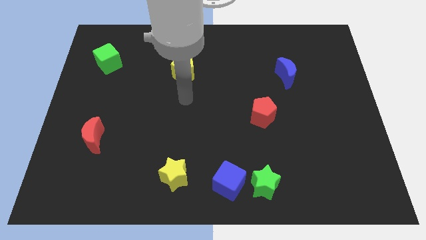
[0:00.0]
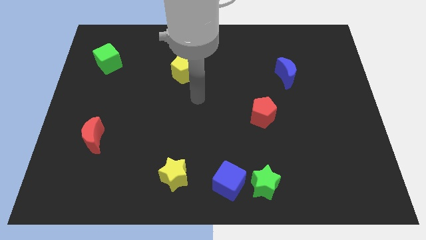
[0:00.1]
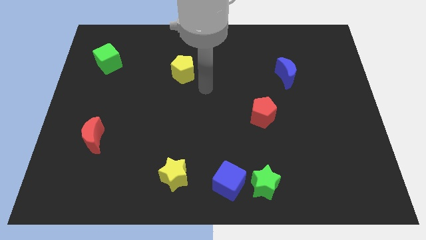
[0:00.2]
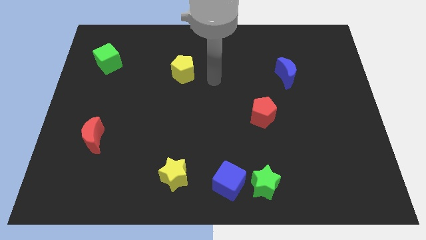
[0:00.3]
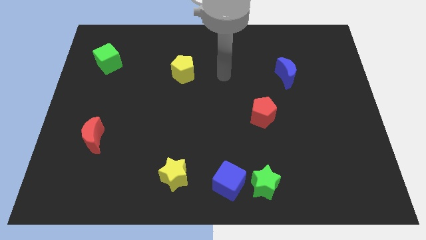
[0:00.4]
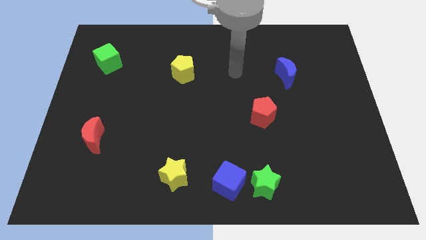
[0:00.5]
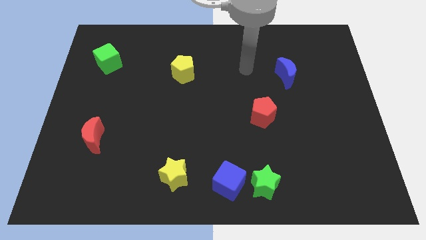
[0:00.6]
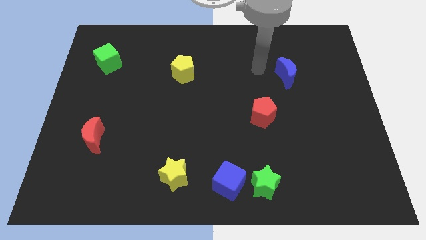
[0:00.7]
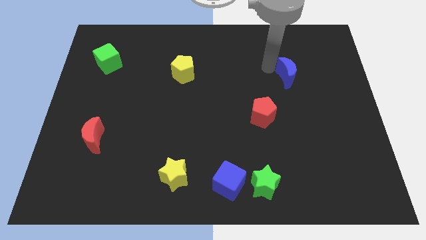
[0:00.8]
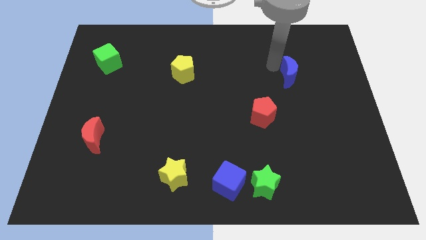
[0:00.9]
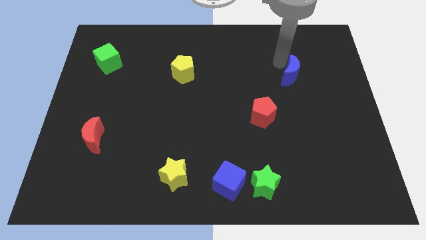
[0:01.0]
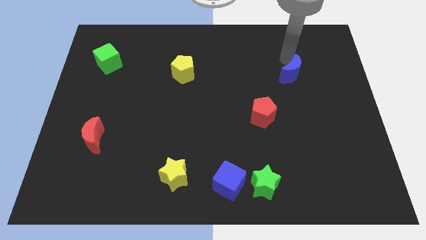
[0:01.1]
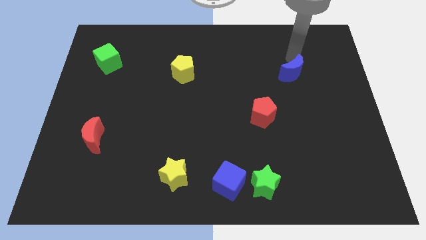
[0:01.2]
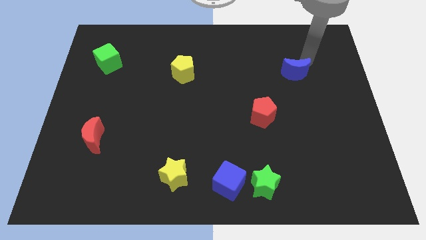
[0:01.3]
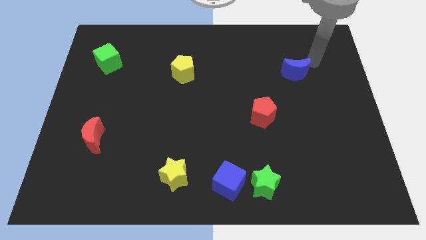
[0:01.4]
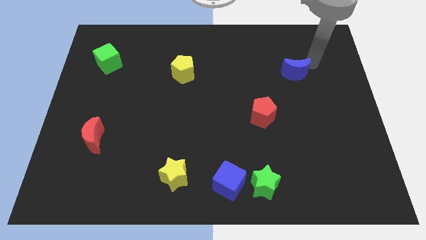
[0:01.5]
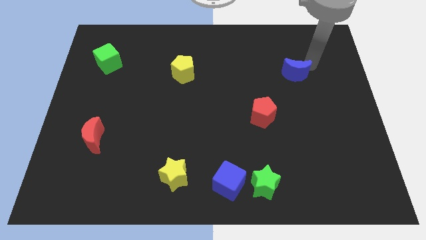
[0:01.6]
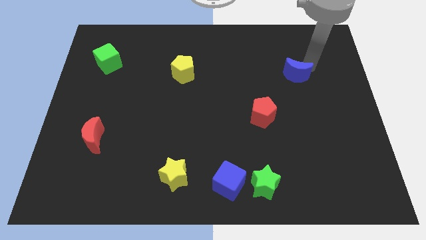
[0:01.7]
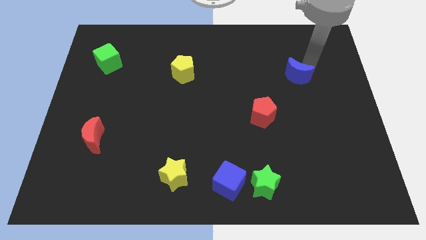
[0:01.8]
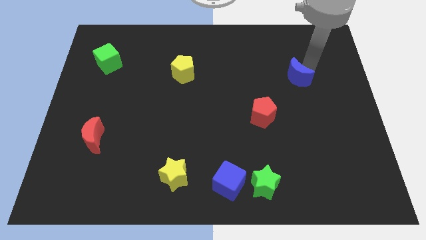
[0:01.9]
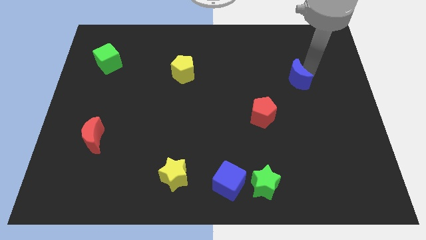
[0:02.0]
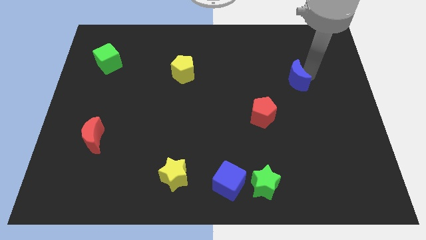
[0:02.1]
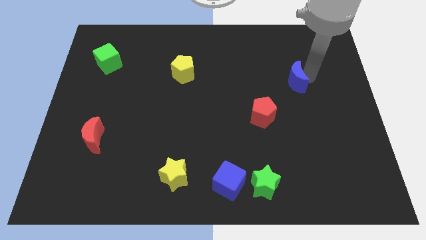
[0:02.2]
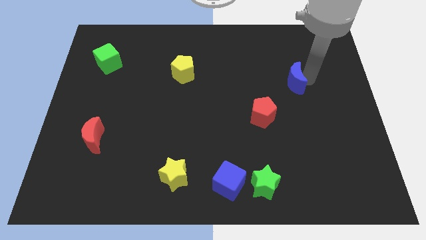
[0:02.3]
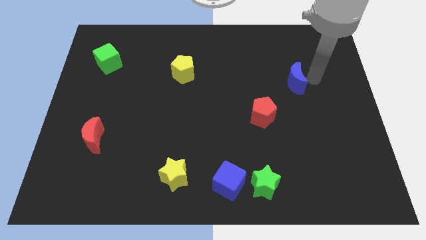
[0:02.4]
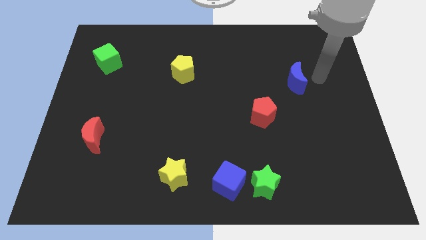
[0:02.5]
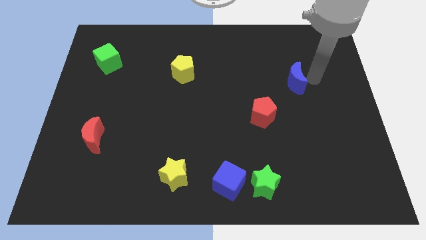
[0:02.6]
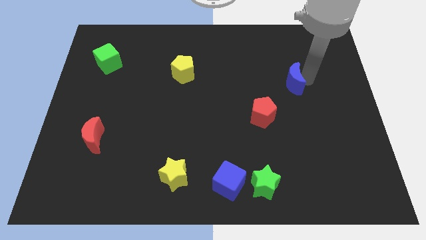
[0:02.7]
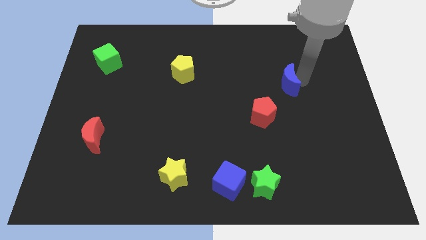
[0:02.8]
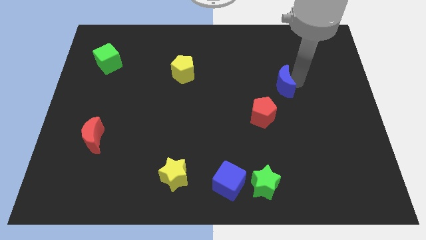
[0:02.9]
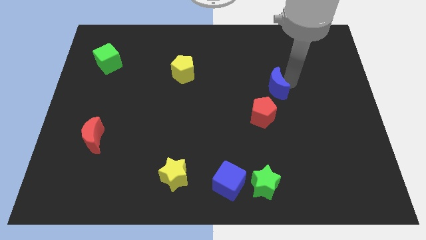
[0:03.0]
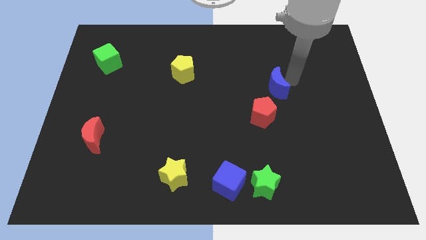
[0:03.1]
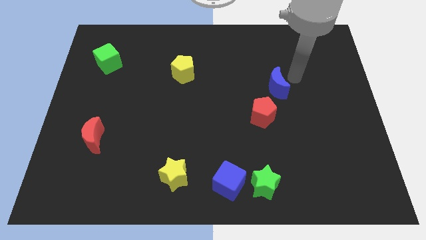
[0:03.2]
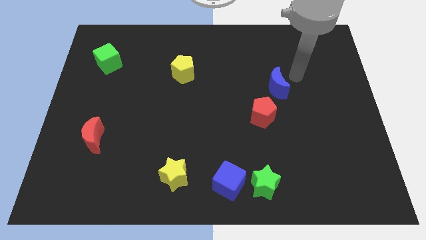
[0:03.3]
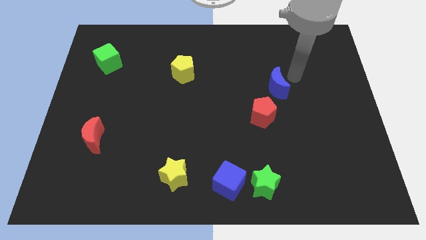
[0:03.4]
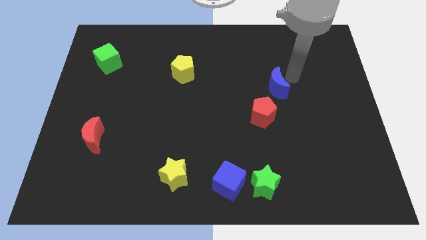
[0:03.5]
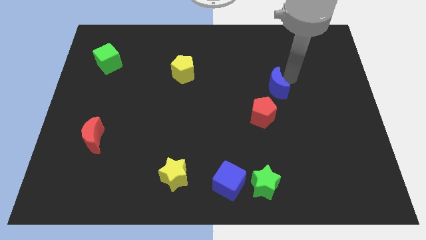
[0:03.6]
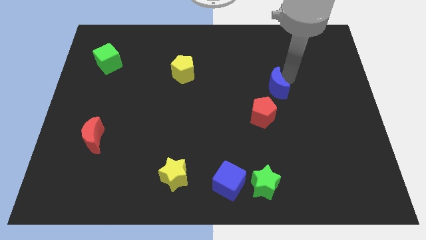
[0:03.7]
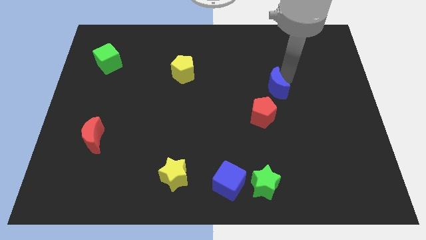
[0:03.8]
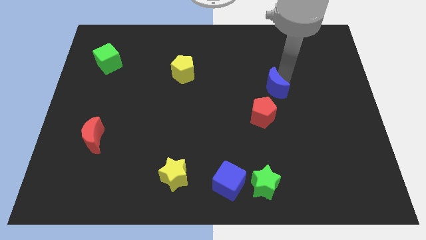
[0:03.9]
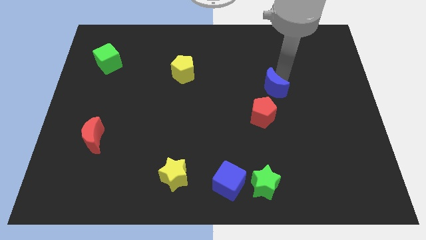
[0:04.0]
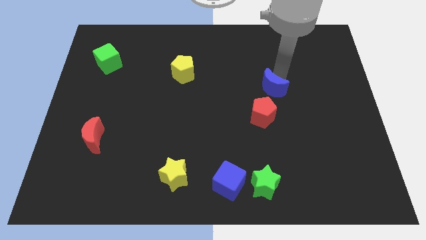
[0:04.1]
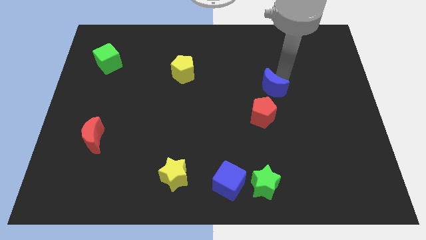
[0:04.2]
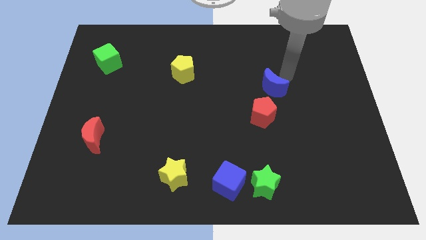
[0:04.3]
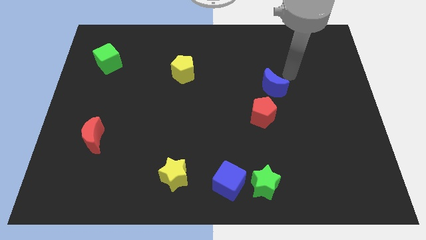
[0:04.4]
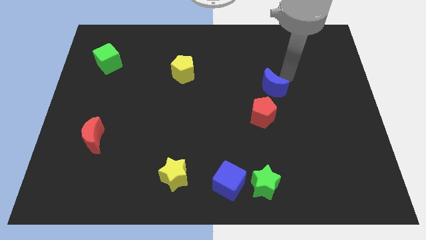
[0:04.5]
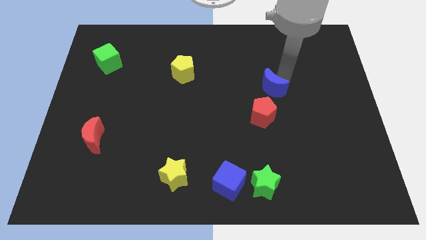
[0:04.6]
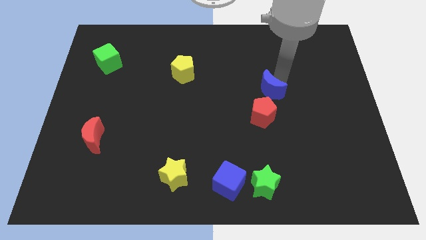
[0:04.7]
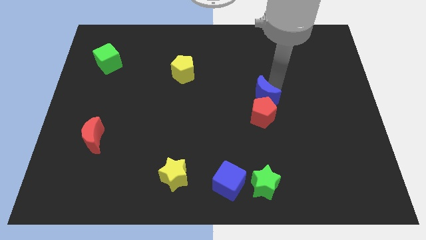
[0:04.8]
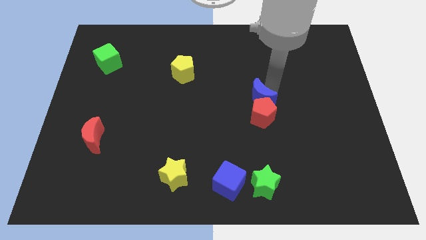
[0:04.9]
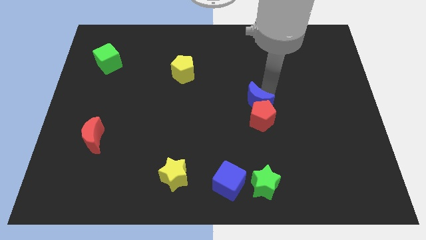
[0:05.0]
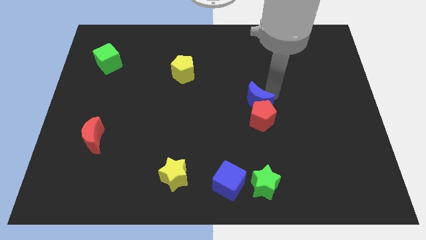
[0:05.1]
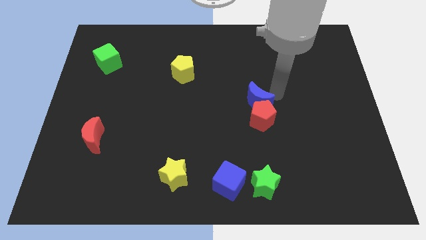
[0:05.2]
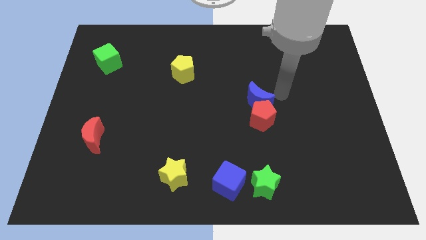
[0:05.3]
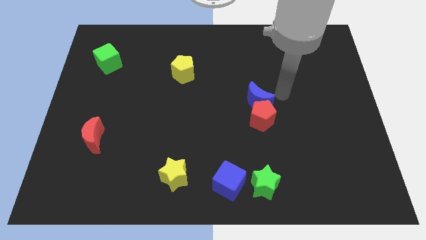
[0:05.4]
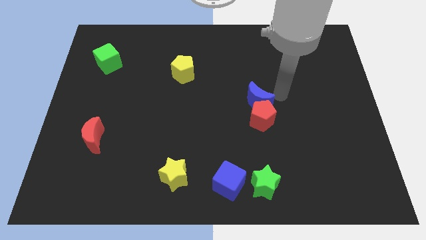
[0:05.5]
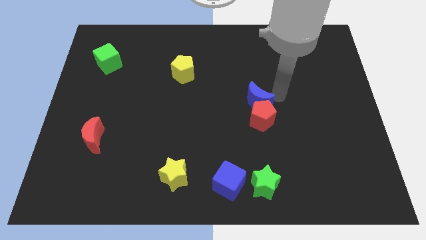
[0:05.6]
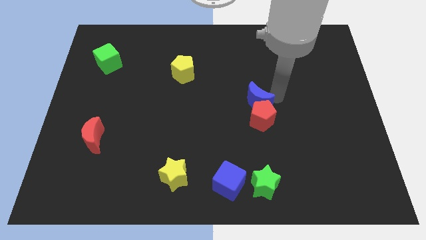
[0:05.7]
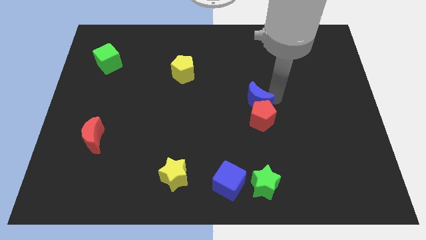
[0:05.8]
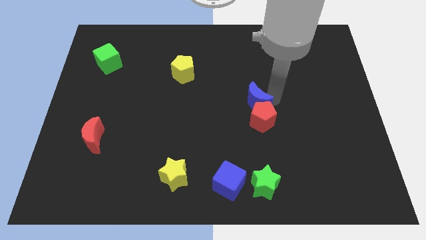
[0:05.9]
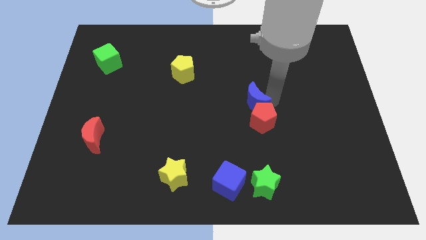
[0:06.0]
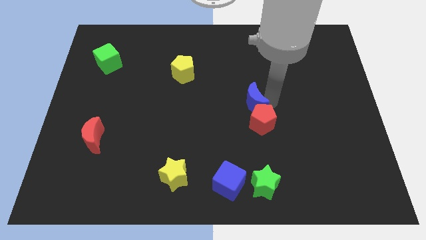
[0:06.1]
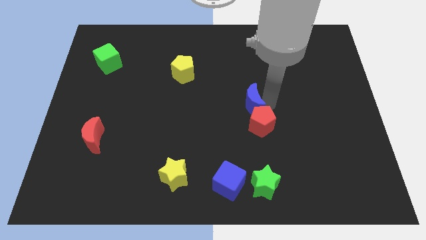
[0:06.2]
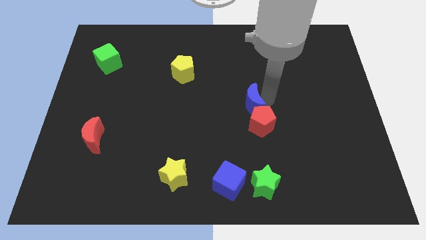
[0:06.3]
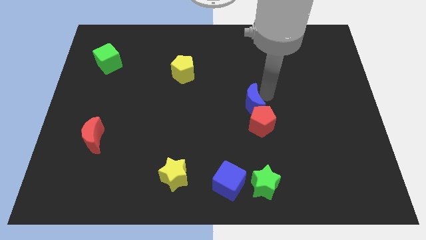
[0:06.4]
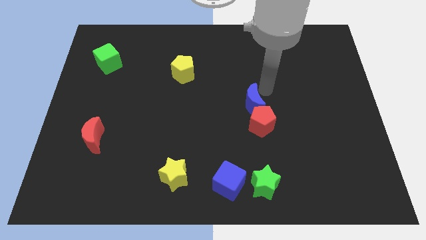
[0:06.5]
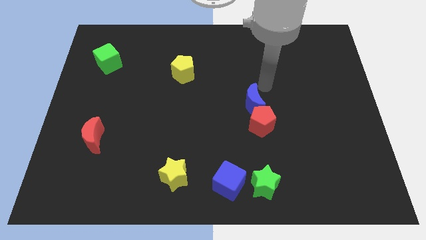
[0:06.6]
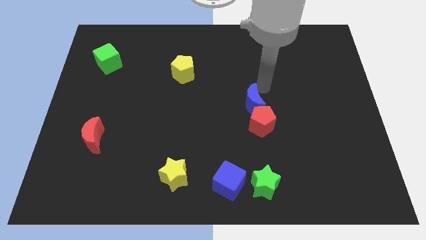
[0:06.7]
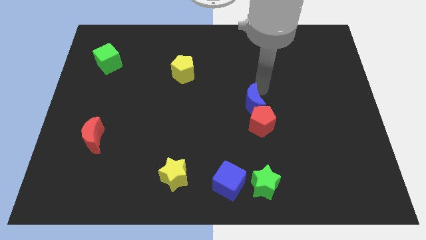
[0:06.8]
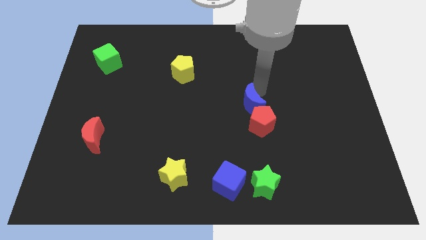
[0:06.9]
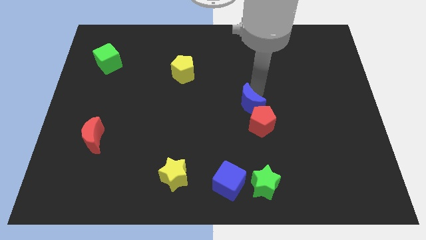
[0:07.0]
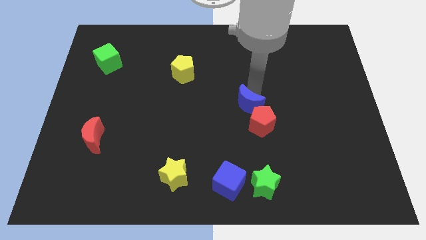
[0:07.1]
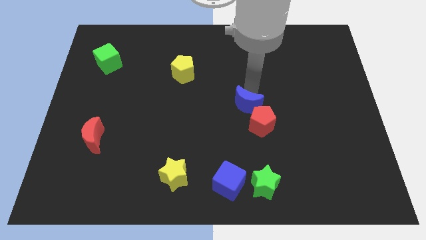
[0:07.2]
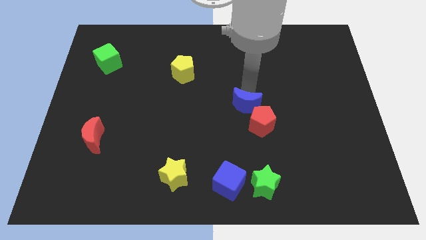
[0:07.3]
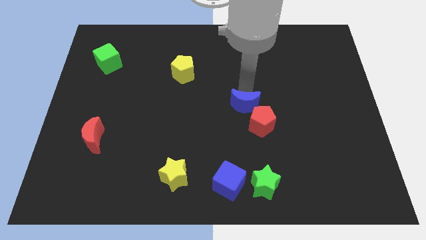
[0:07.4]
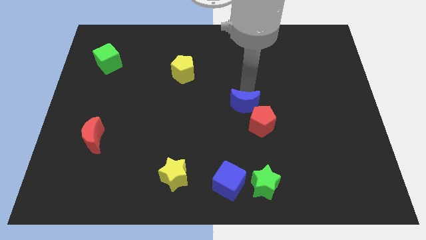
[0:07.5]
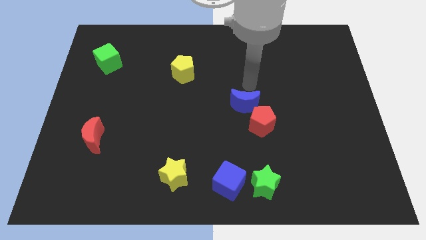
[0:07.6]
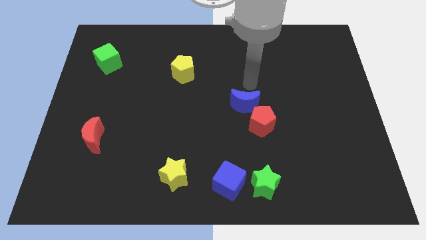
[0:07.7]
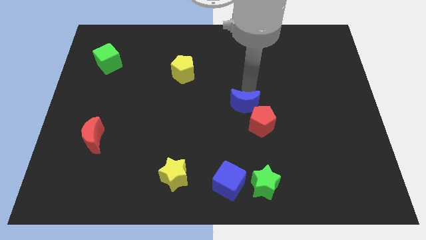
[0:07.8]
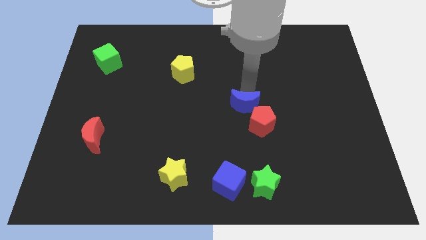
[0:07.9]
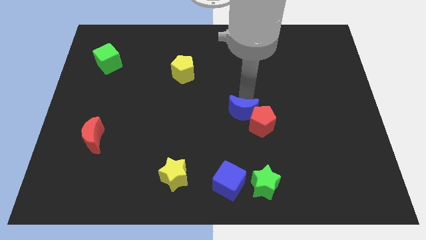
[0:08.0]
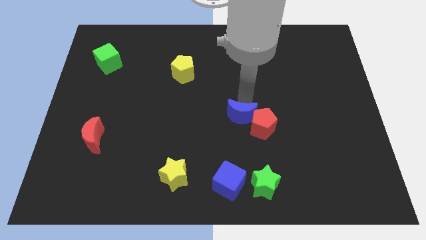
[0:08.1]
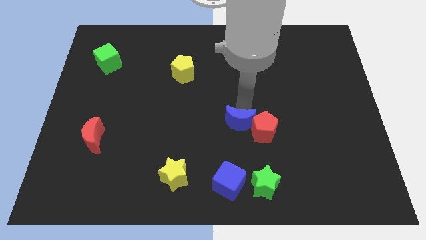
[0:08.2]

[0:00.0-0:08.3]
move the blue moon to the top of the blue cube
